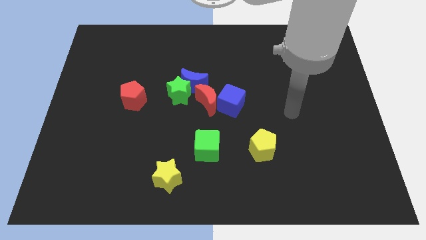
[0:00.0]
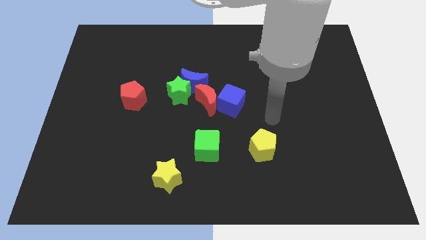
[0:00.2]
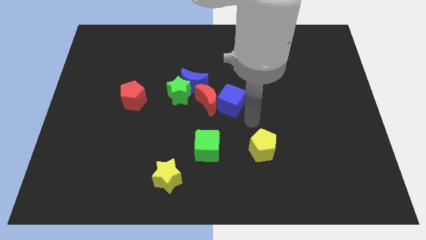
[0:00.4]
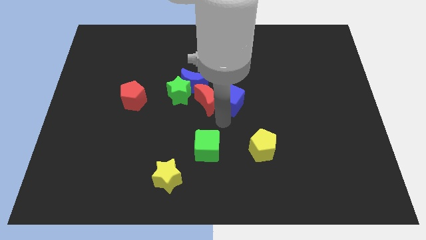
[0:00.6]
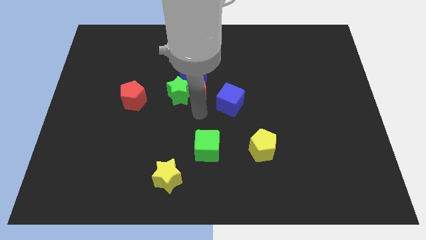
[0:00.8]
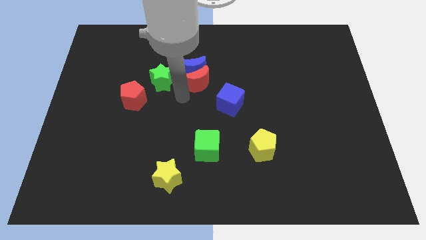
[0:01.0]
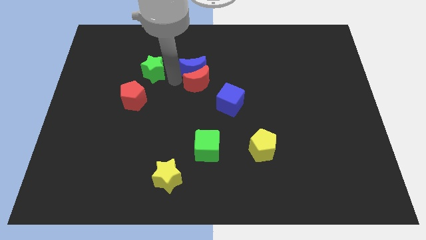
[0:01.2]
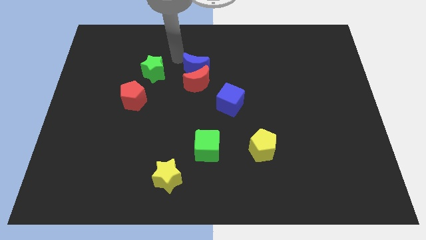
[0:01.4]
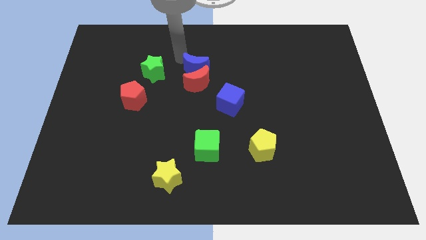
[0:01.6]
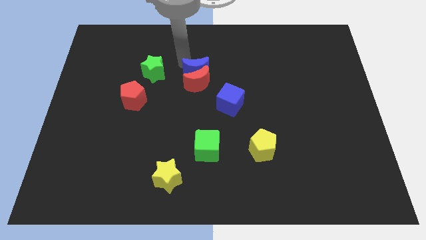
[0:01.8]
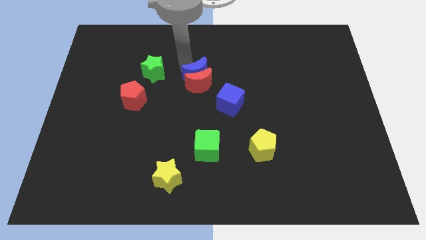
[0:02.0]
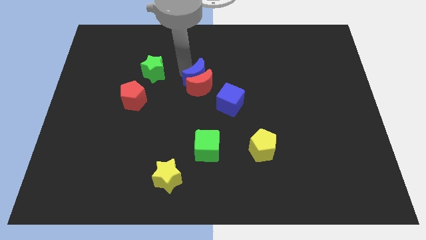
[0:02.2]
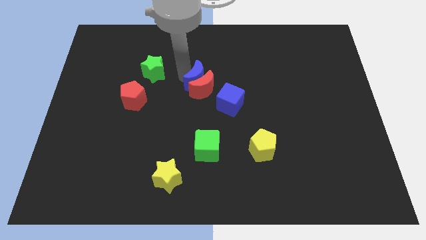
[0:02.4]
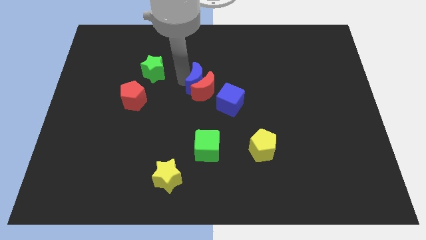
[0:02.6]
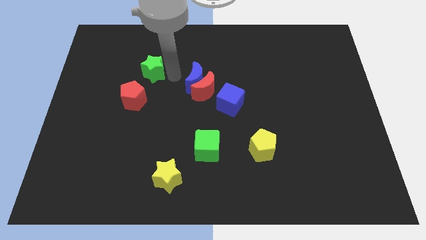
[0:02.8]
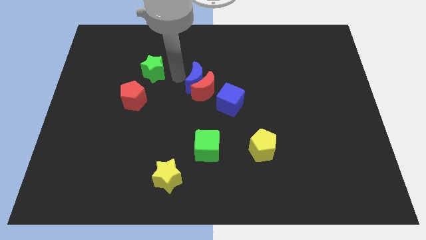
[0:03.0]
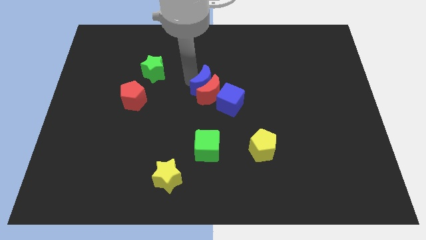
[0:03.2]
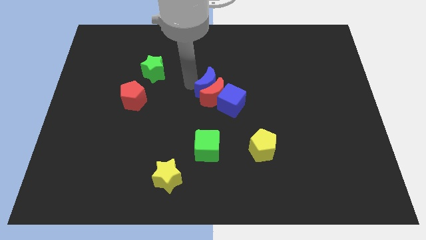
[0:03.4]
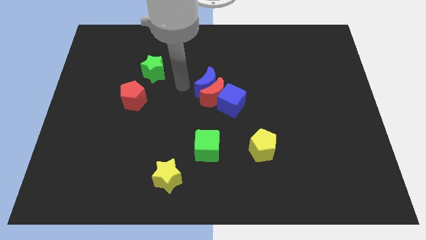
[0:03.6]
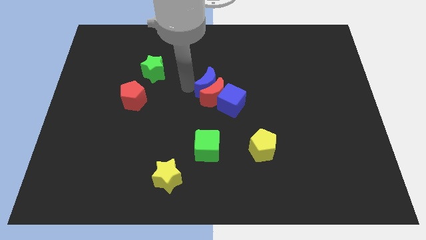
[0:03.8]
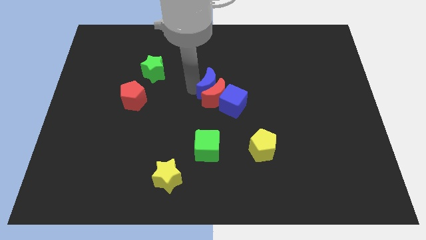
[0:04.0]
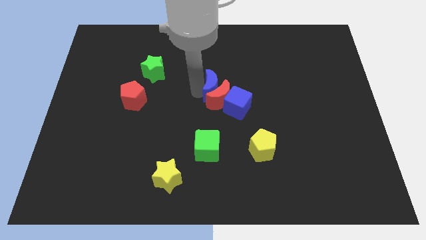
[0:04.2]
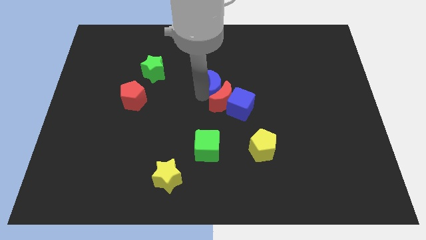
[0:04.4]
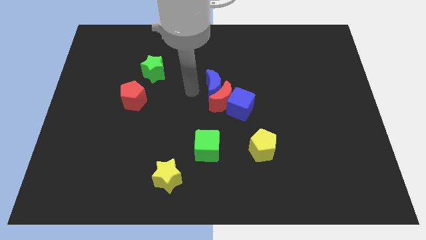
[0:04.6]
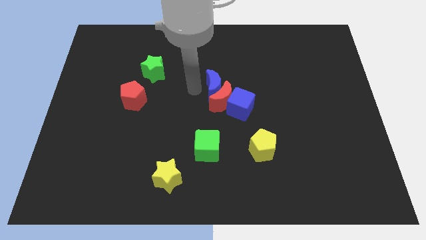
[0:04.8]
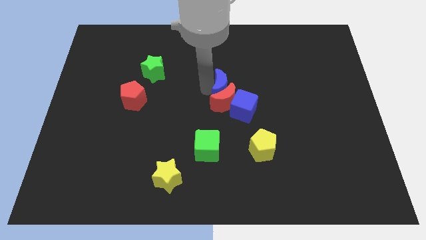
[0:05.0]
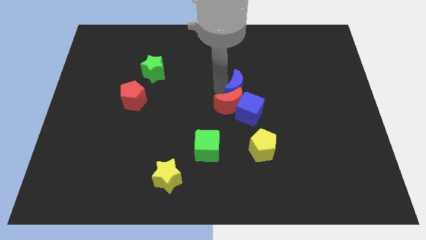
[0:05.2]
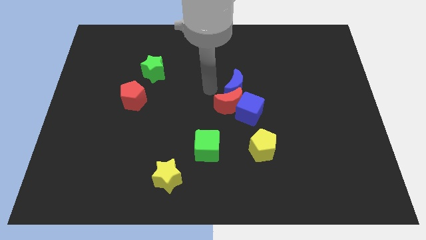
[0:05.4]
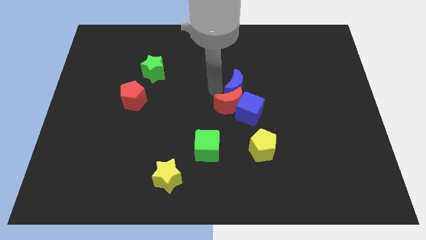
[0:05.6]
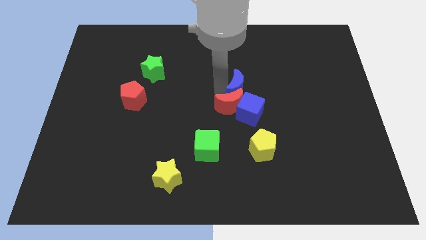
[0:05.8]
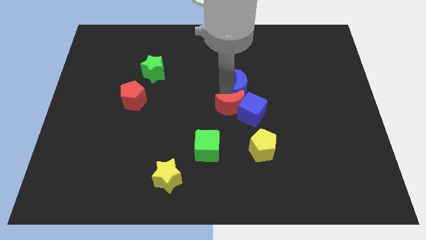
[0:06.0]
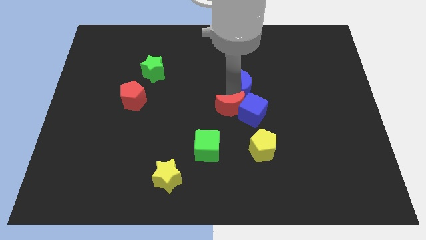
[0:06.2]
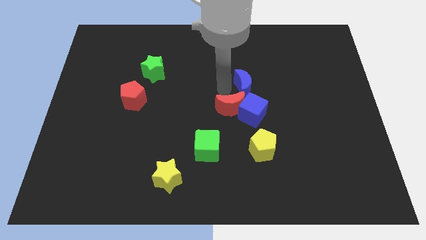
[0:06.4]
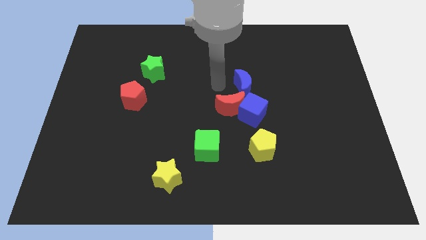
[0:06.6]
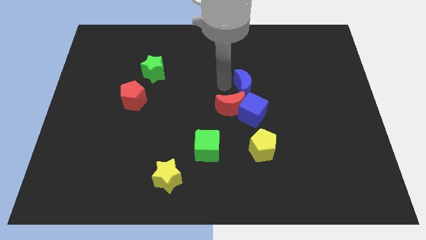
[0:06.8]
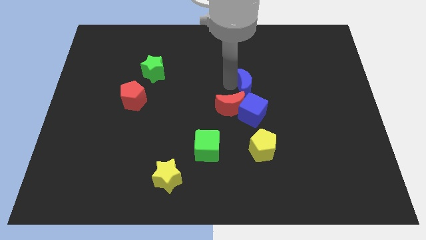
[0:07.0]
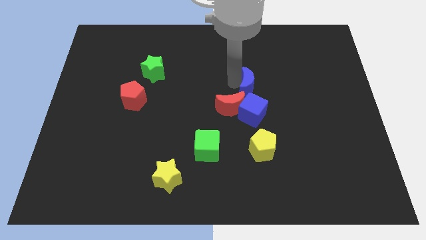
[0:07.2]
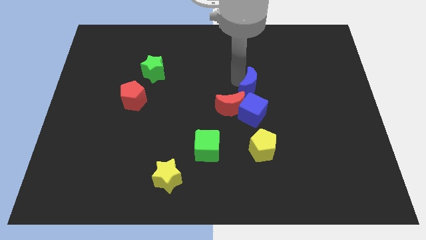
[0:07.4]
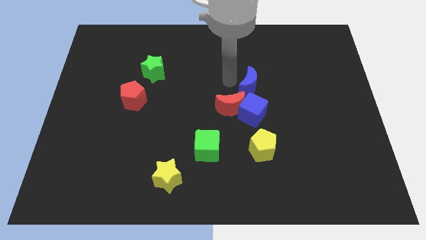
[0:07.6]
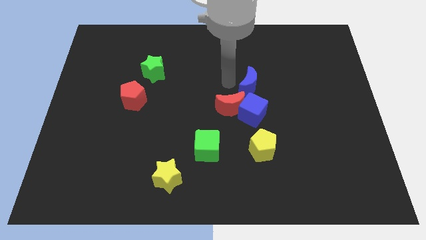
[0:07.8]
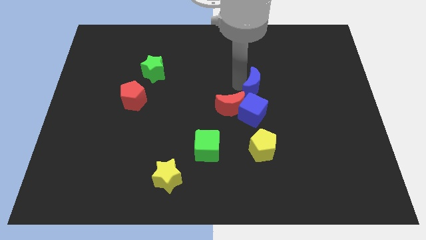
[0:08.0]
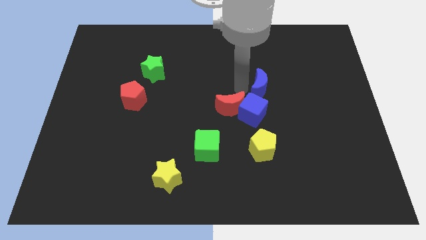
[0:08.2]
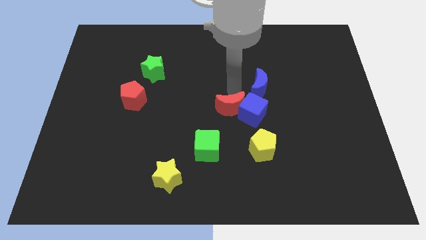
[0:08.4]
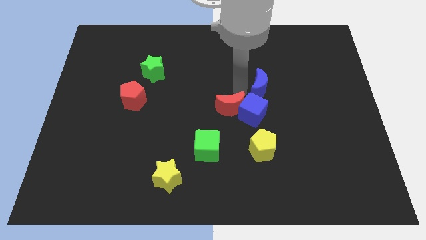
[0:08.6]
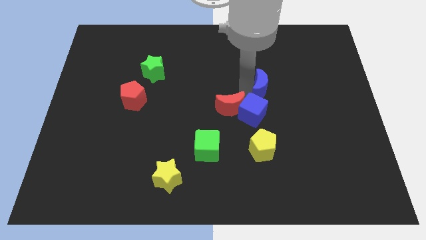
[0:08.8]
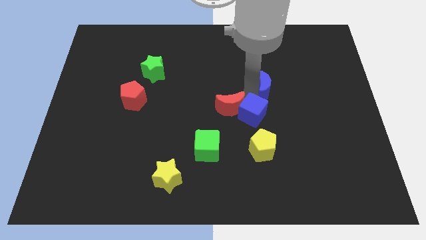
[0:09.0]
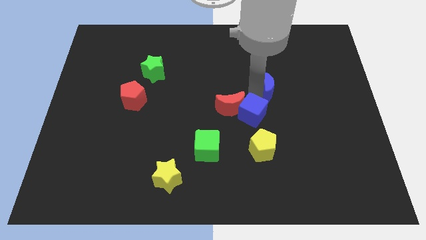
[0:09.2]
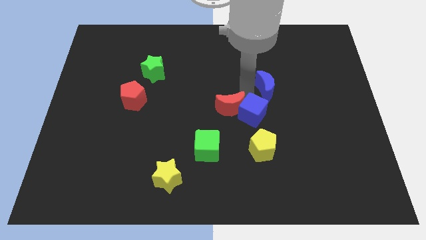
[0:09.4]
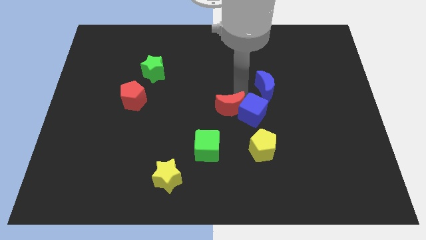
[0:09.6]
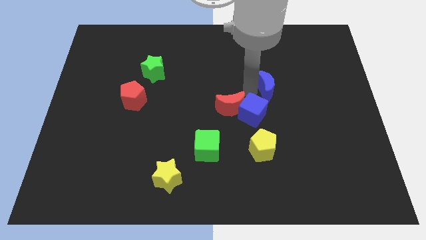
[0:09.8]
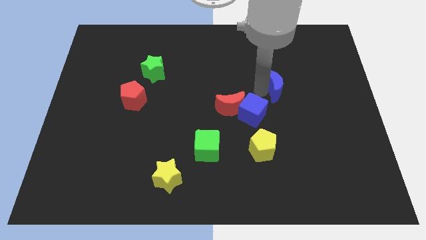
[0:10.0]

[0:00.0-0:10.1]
slide the blue moon right

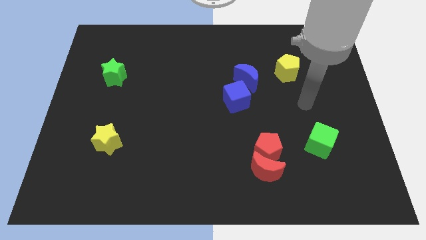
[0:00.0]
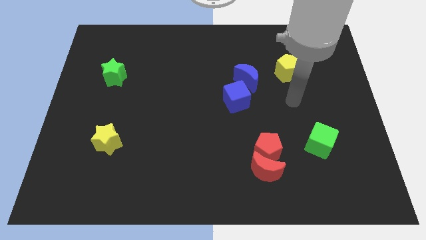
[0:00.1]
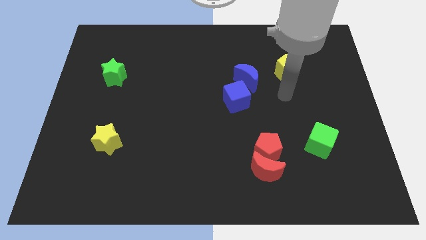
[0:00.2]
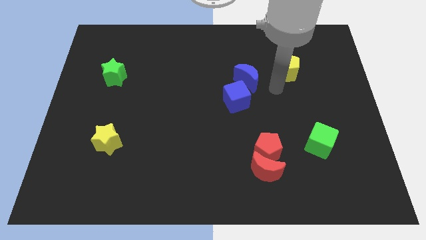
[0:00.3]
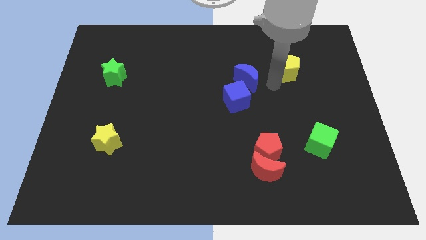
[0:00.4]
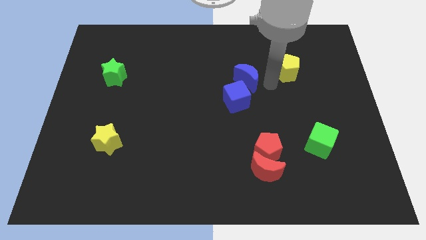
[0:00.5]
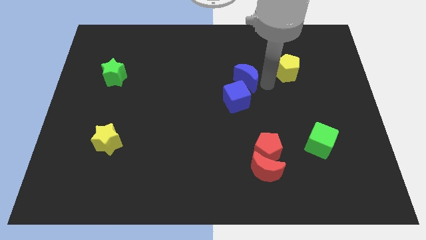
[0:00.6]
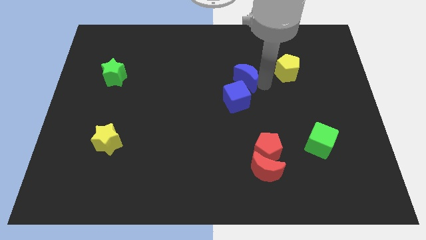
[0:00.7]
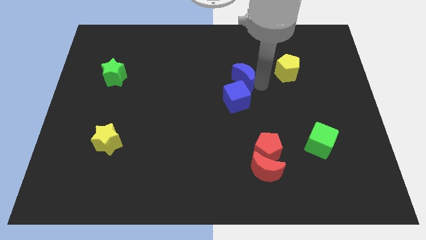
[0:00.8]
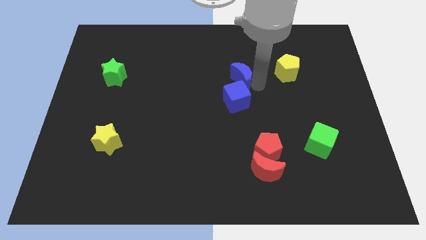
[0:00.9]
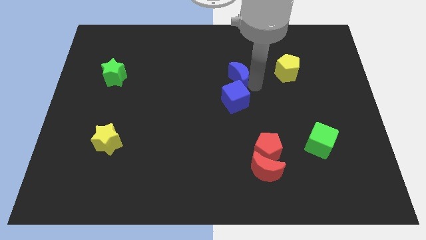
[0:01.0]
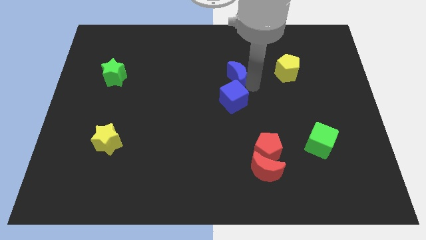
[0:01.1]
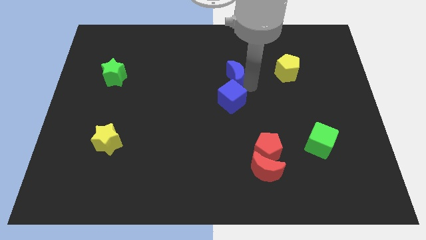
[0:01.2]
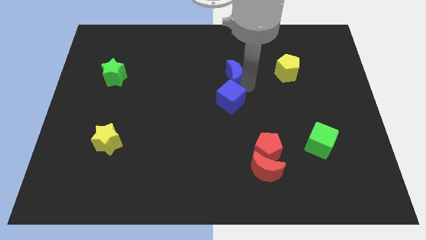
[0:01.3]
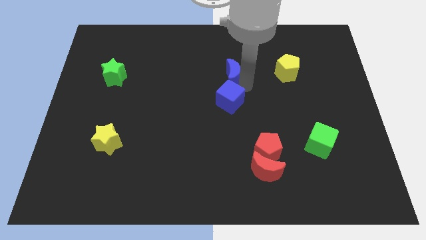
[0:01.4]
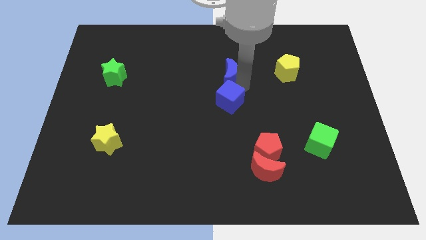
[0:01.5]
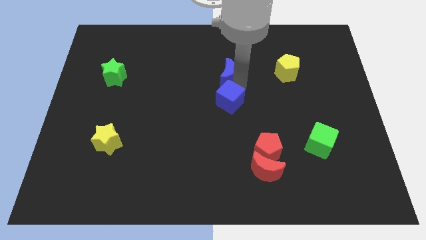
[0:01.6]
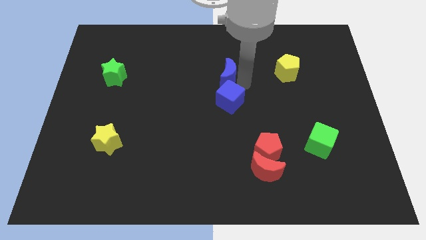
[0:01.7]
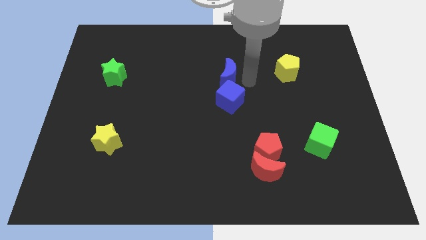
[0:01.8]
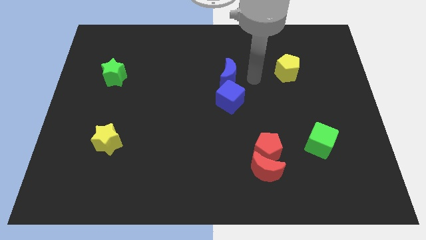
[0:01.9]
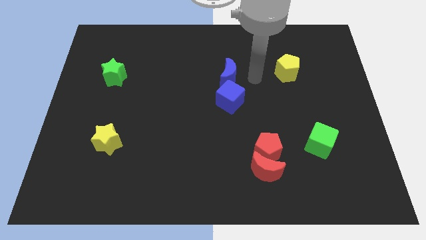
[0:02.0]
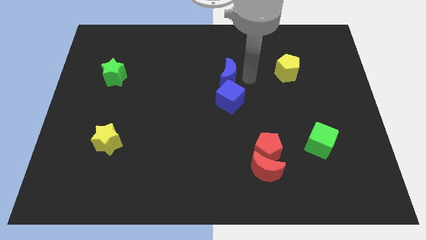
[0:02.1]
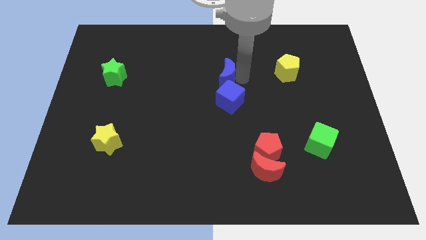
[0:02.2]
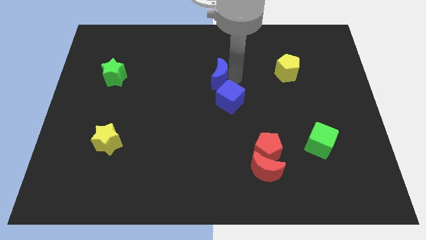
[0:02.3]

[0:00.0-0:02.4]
slightly slide the blue moon to the left

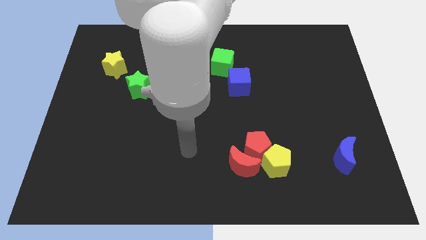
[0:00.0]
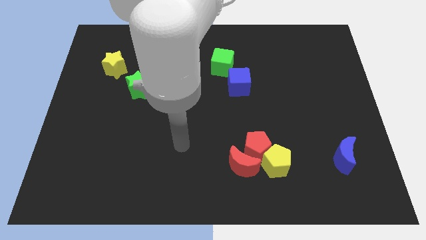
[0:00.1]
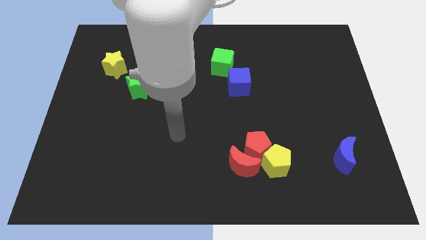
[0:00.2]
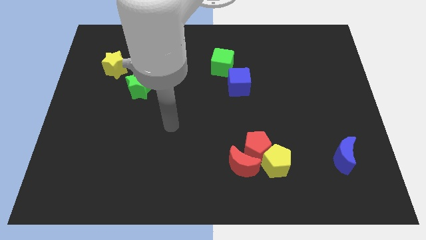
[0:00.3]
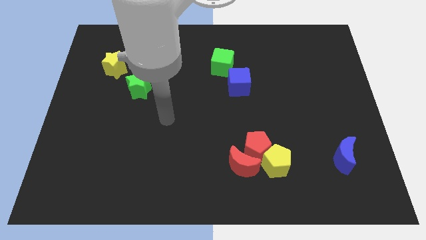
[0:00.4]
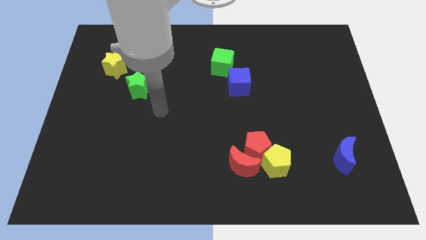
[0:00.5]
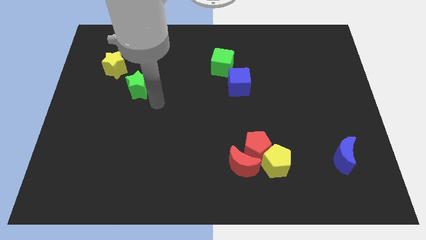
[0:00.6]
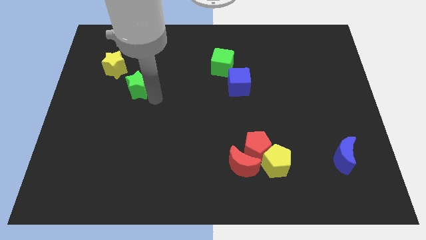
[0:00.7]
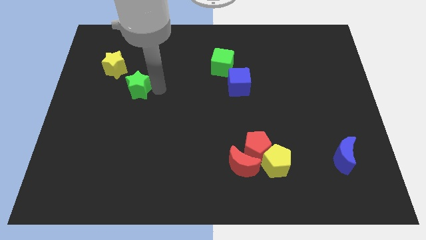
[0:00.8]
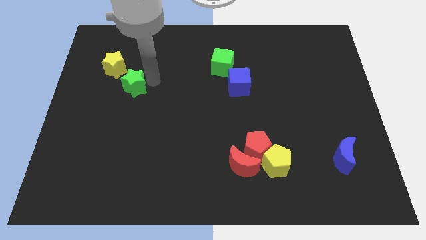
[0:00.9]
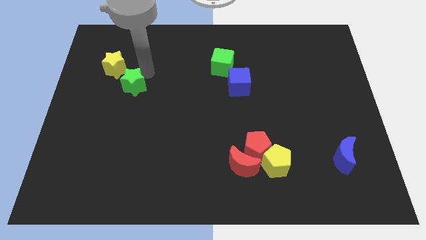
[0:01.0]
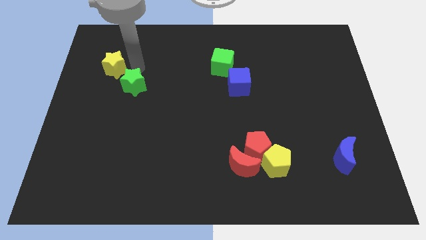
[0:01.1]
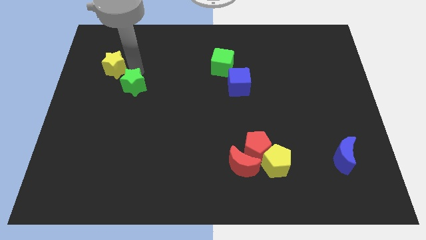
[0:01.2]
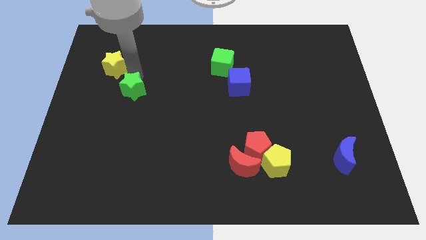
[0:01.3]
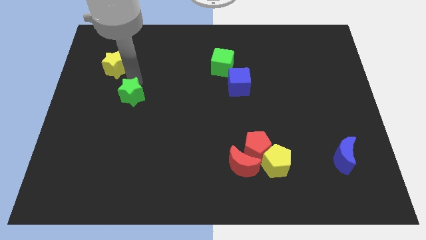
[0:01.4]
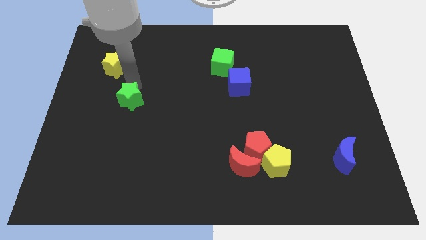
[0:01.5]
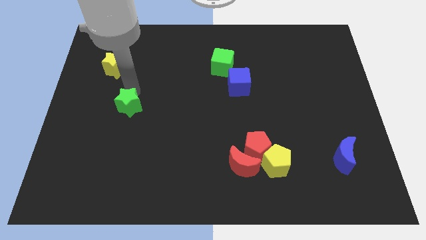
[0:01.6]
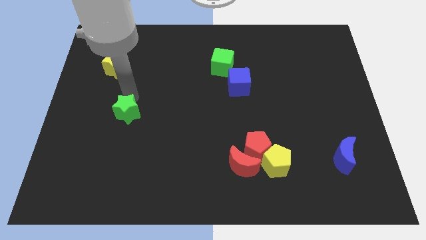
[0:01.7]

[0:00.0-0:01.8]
move the green star down slightly
